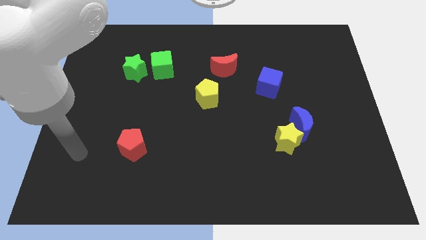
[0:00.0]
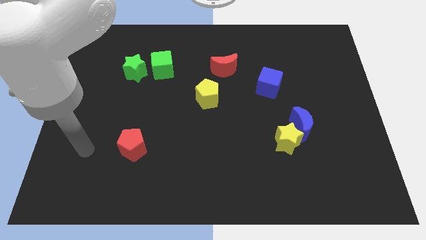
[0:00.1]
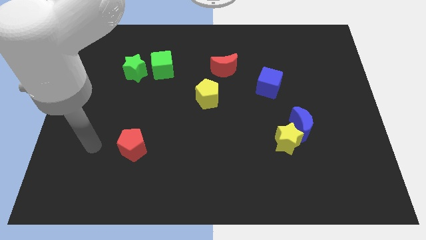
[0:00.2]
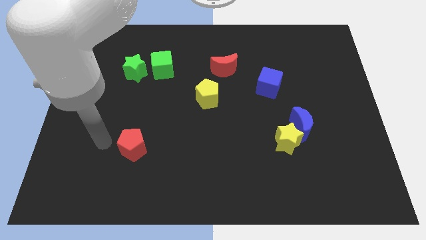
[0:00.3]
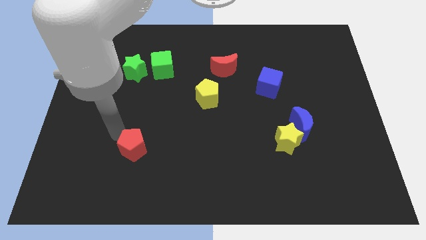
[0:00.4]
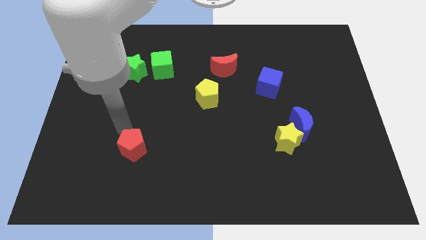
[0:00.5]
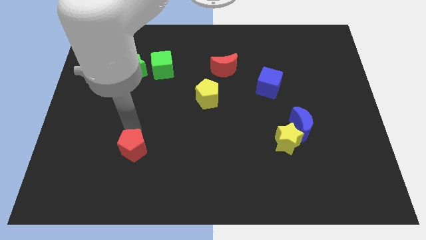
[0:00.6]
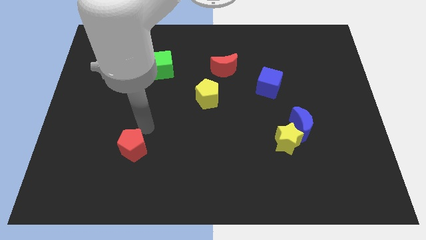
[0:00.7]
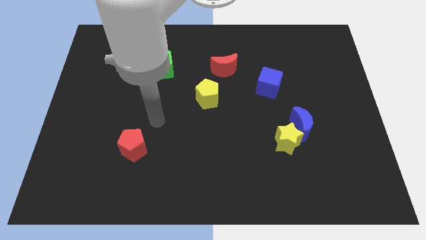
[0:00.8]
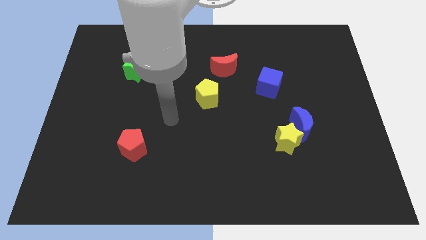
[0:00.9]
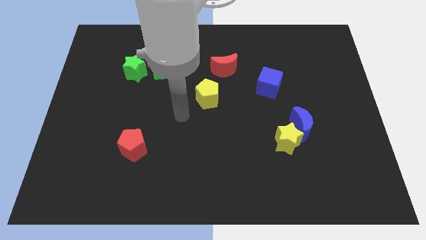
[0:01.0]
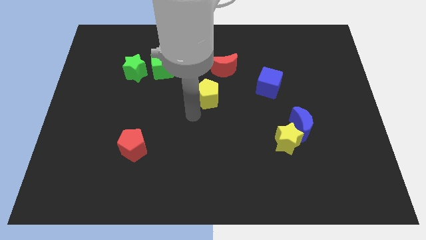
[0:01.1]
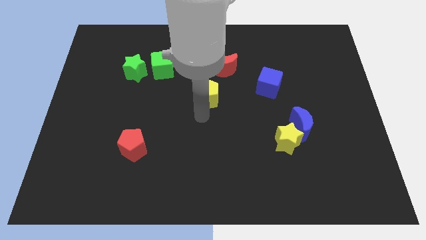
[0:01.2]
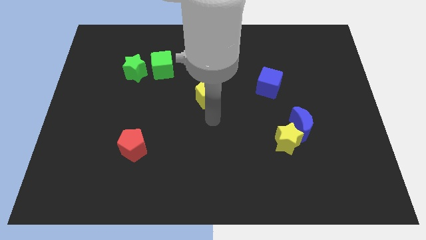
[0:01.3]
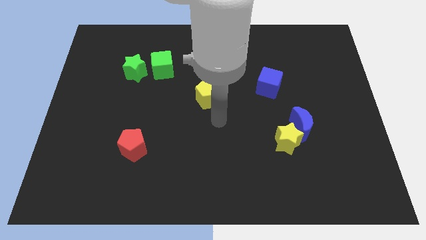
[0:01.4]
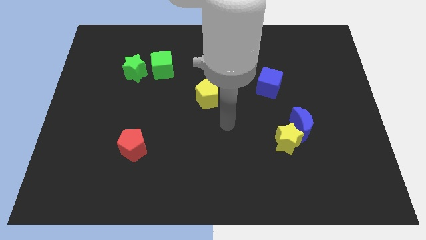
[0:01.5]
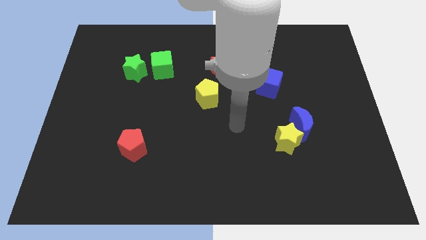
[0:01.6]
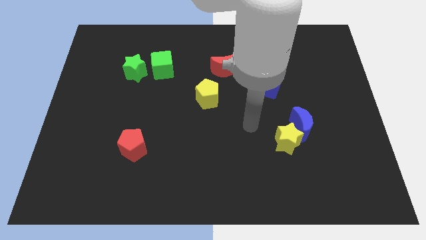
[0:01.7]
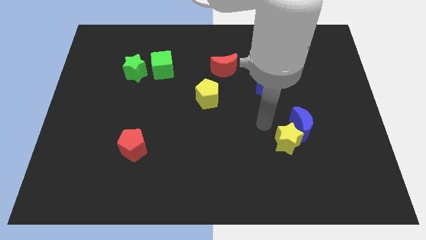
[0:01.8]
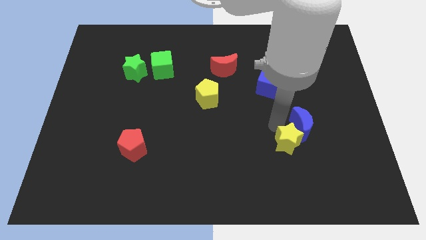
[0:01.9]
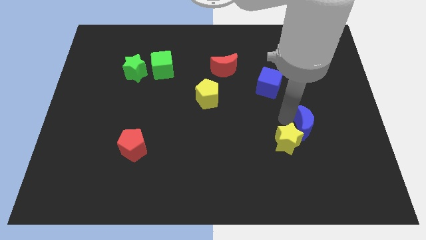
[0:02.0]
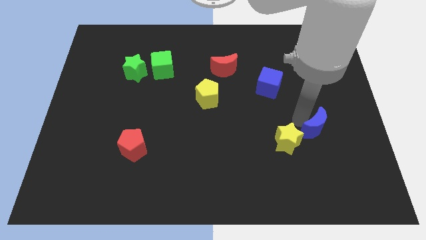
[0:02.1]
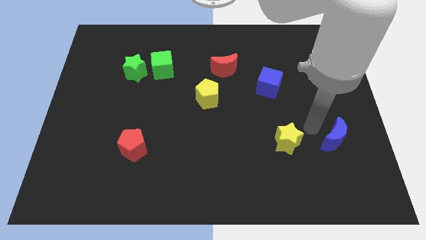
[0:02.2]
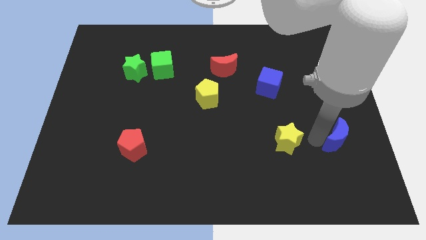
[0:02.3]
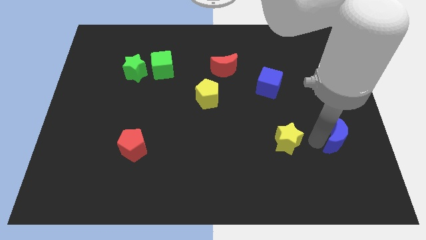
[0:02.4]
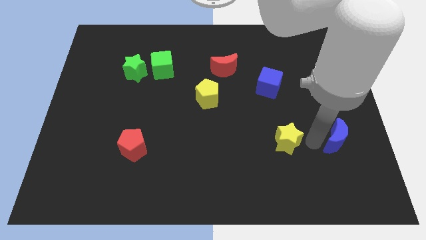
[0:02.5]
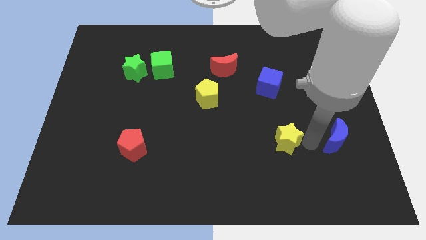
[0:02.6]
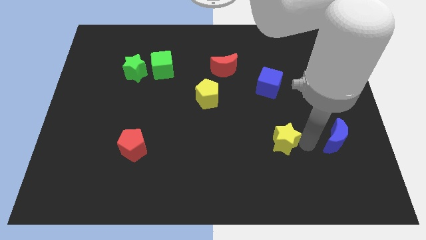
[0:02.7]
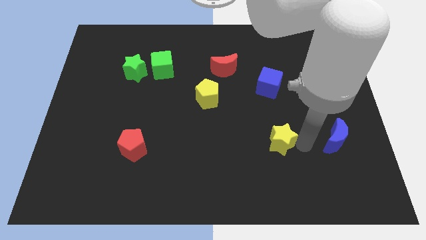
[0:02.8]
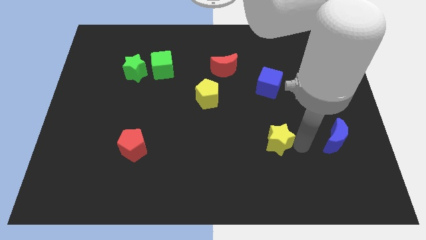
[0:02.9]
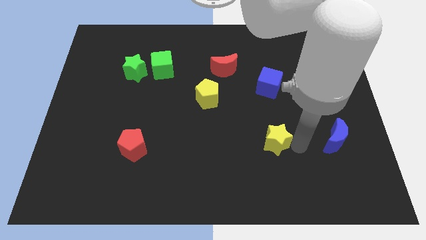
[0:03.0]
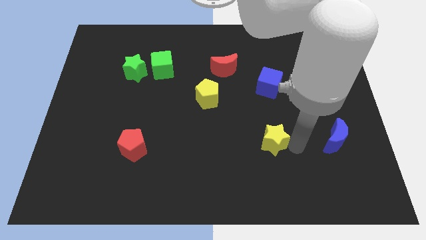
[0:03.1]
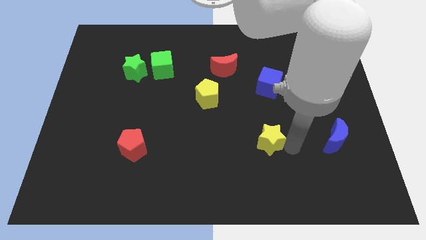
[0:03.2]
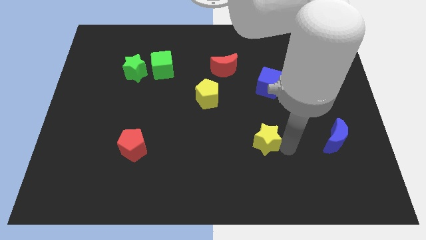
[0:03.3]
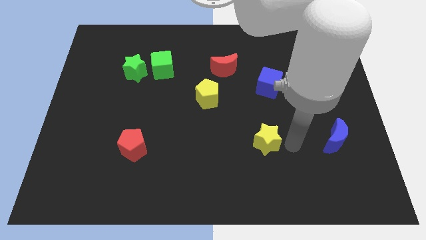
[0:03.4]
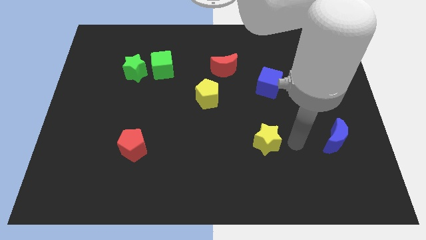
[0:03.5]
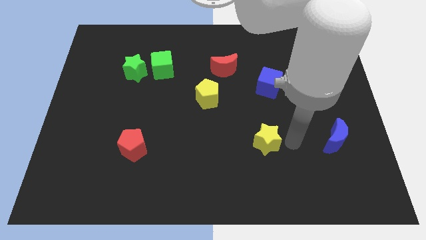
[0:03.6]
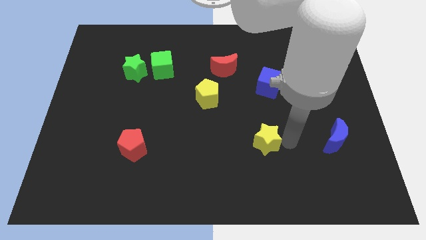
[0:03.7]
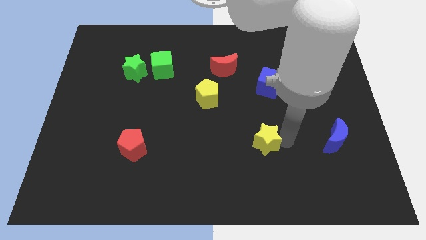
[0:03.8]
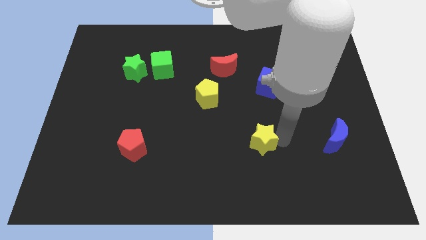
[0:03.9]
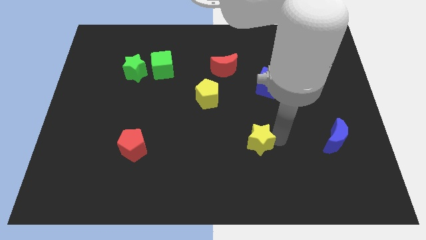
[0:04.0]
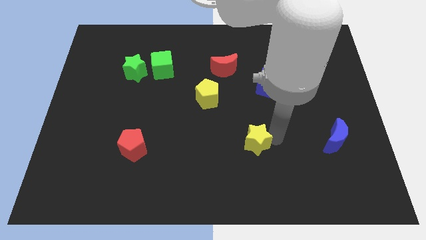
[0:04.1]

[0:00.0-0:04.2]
slide the yellow star a bit to the left

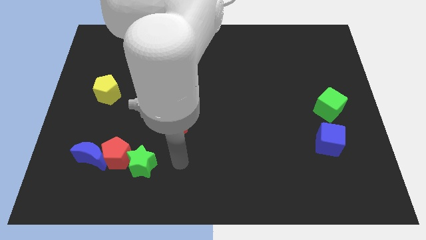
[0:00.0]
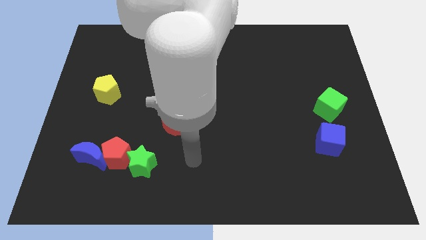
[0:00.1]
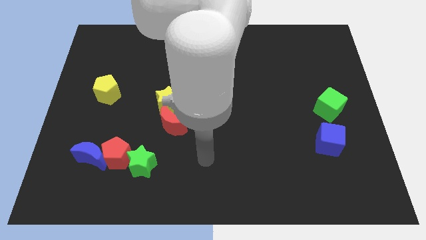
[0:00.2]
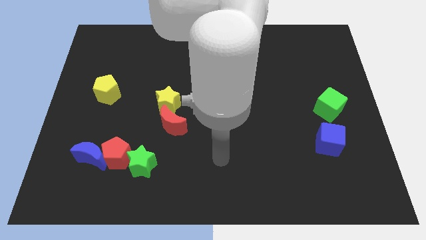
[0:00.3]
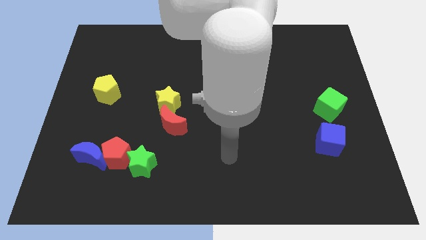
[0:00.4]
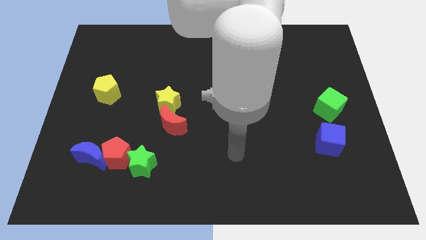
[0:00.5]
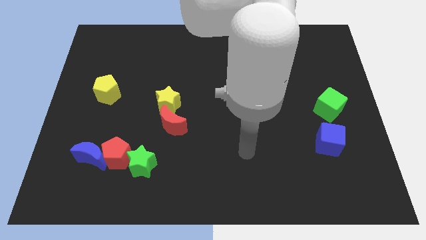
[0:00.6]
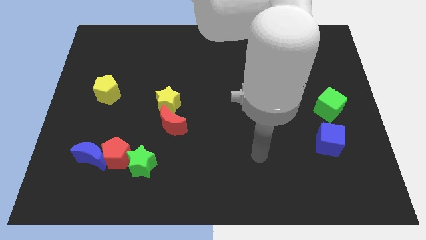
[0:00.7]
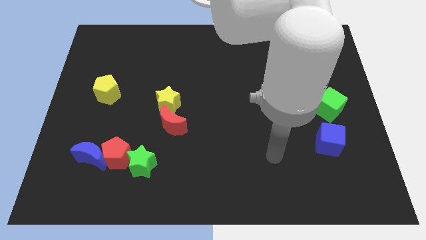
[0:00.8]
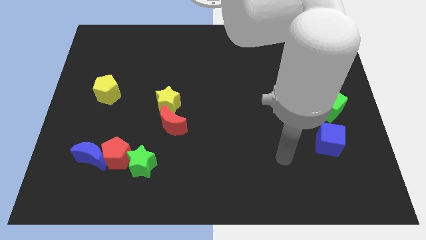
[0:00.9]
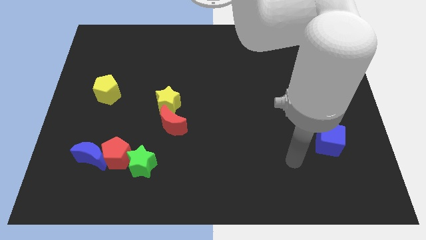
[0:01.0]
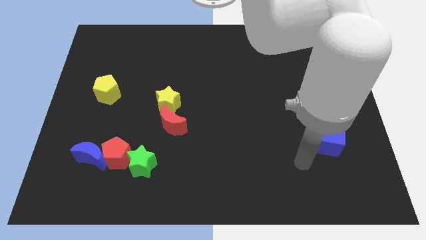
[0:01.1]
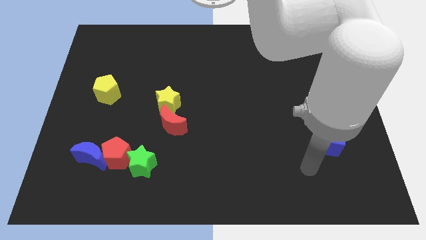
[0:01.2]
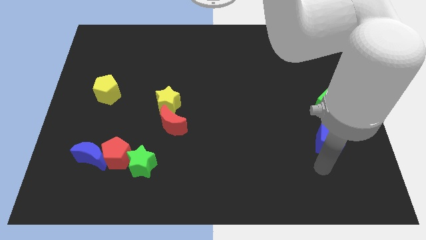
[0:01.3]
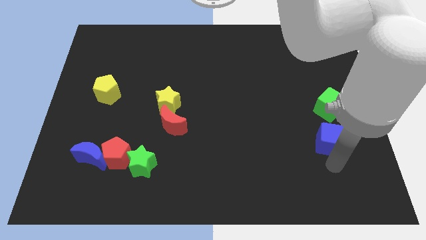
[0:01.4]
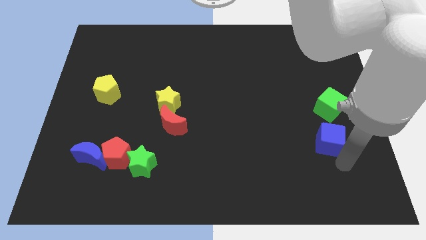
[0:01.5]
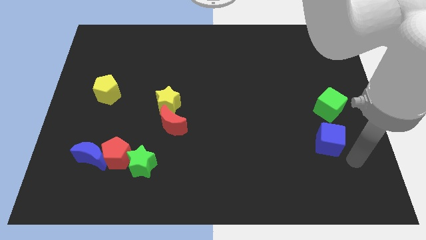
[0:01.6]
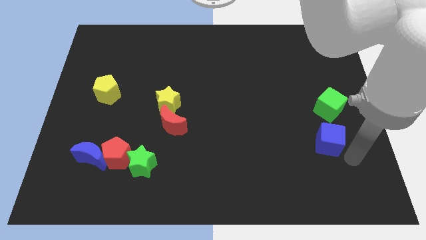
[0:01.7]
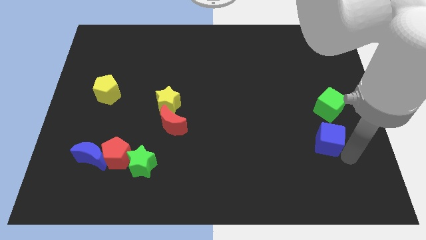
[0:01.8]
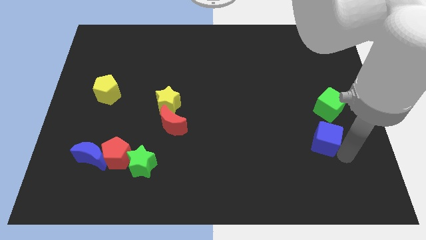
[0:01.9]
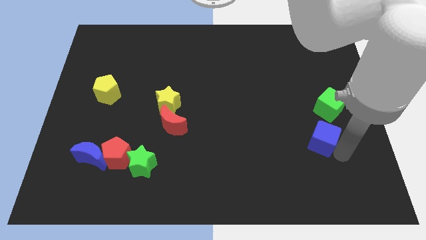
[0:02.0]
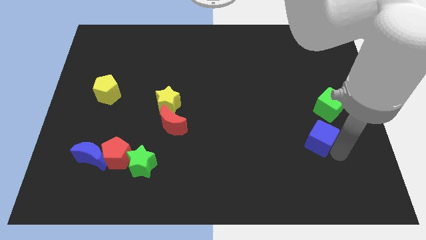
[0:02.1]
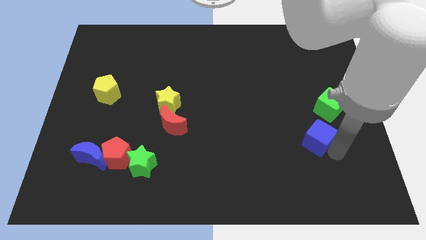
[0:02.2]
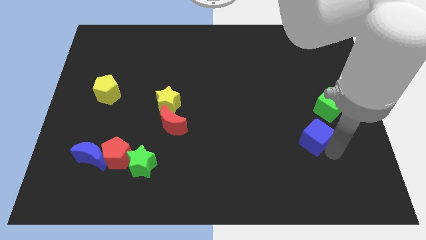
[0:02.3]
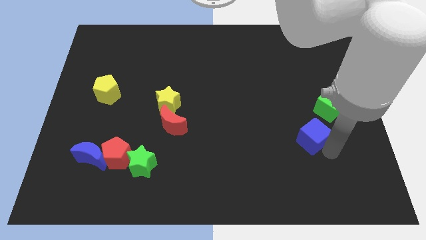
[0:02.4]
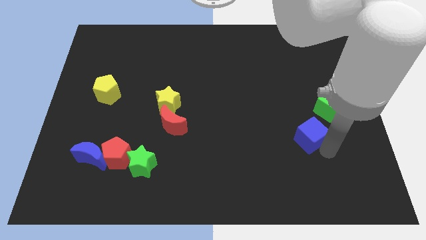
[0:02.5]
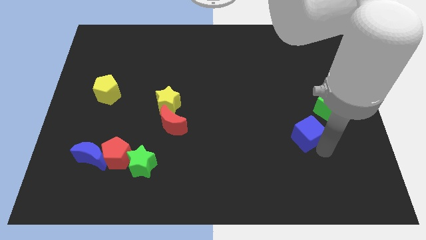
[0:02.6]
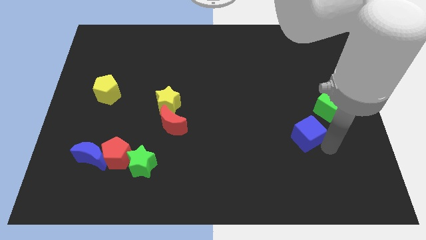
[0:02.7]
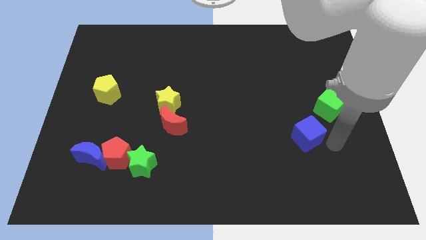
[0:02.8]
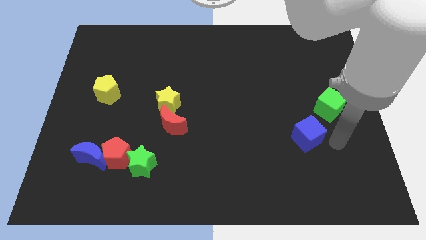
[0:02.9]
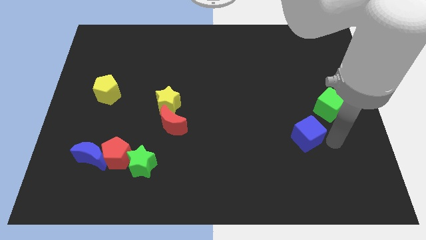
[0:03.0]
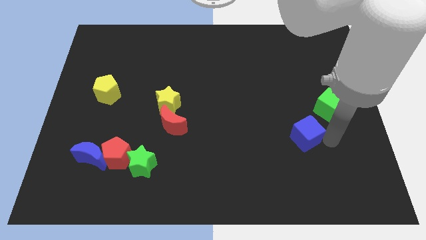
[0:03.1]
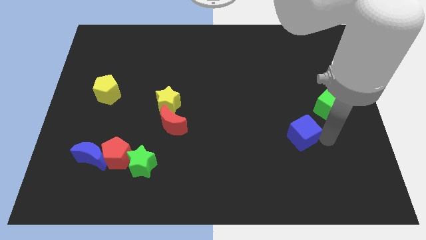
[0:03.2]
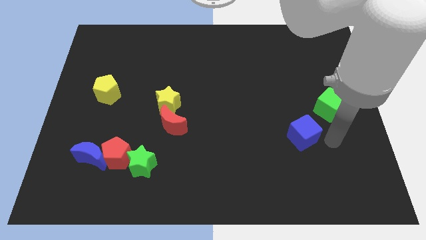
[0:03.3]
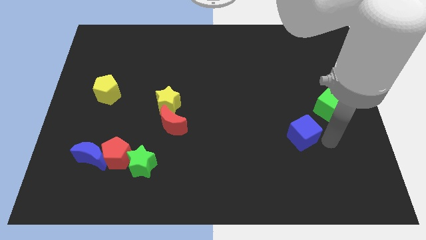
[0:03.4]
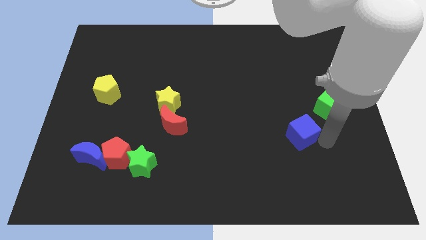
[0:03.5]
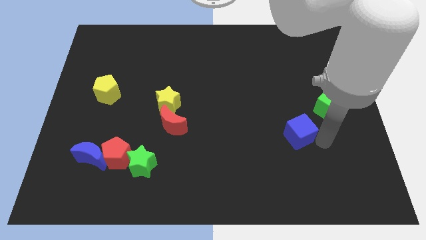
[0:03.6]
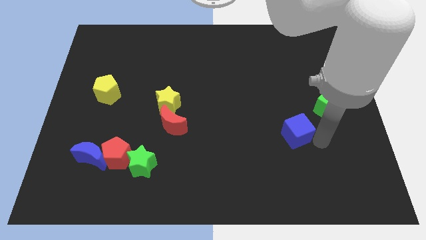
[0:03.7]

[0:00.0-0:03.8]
push the blue cube to the left somewhat

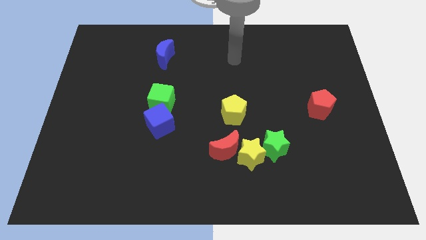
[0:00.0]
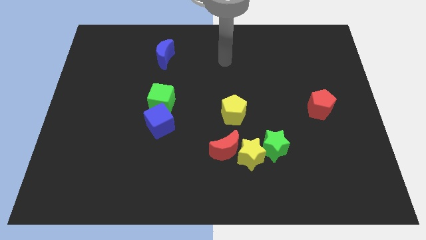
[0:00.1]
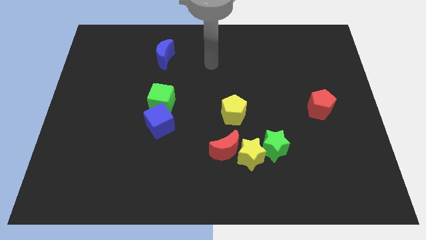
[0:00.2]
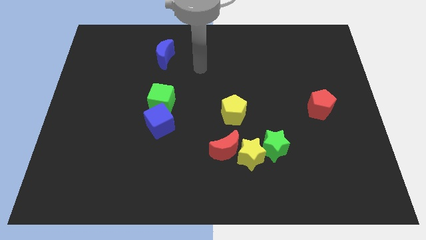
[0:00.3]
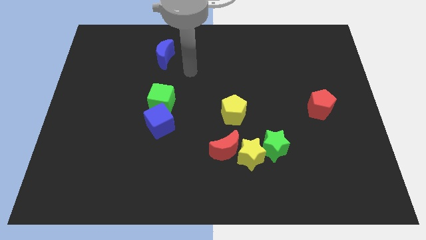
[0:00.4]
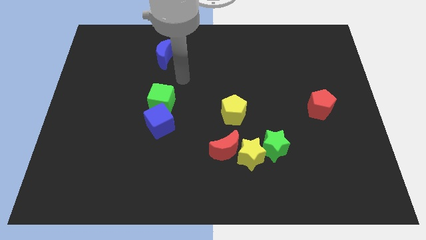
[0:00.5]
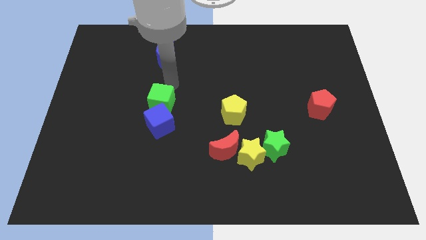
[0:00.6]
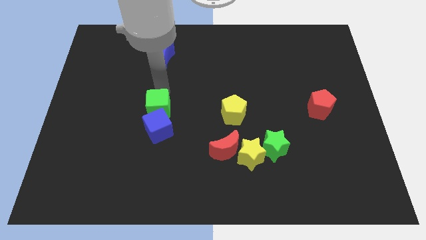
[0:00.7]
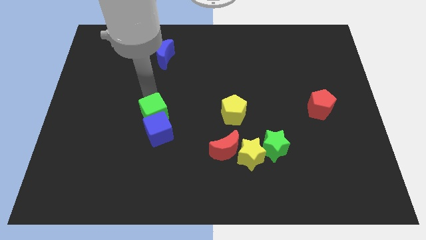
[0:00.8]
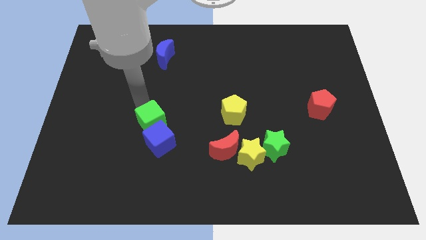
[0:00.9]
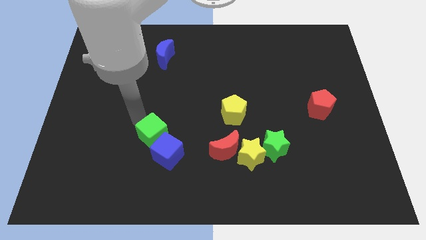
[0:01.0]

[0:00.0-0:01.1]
slide the blue cube downwards and right diagonally a little bit
